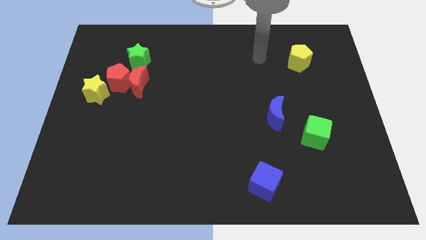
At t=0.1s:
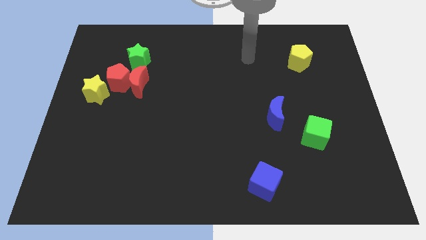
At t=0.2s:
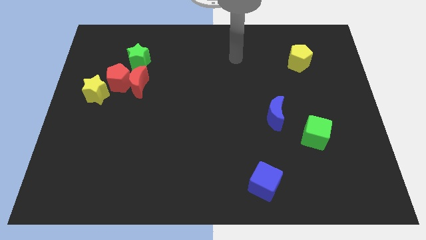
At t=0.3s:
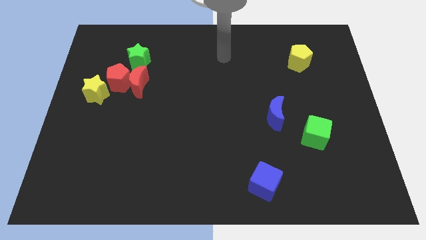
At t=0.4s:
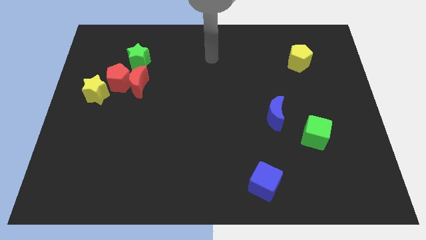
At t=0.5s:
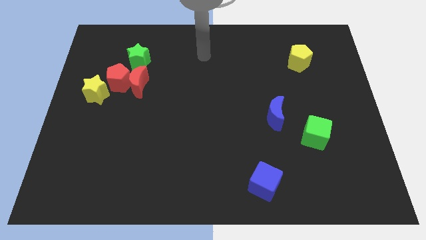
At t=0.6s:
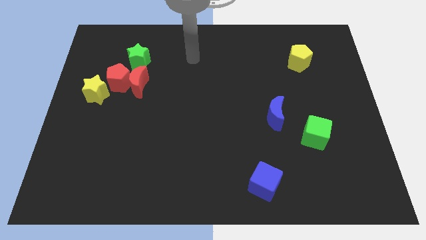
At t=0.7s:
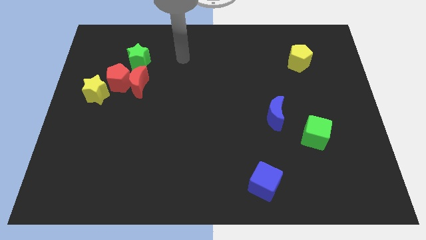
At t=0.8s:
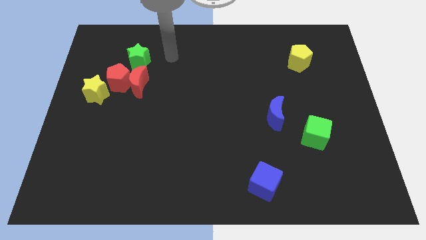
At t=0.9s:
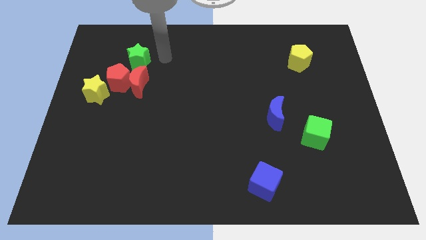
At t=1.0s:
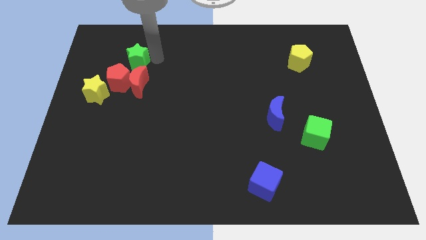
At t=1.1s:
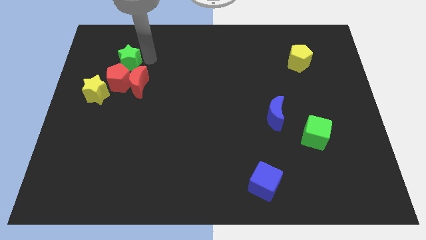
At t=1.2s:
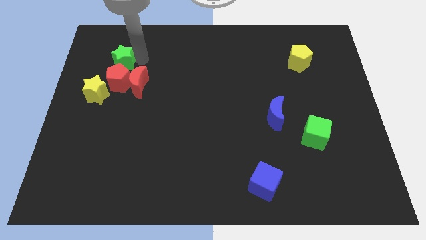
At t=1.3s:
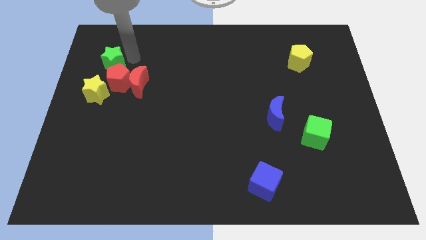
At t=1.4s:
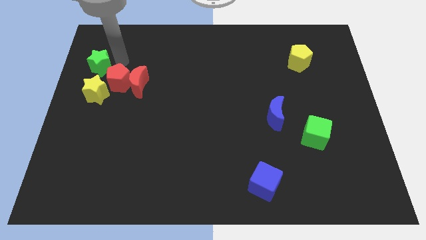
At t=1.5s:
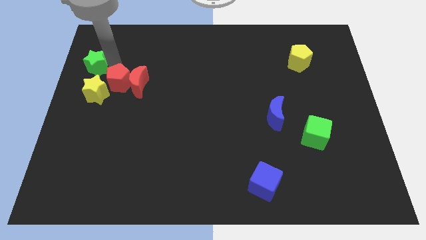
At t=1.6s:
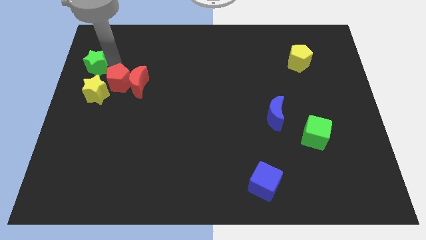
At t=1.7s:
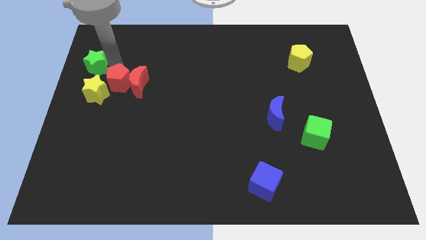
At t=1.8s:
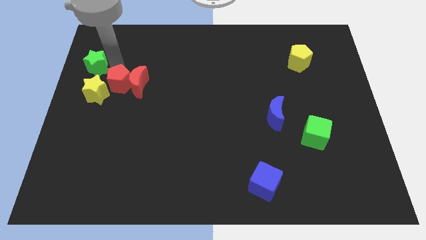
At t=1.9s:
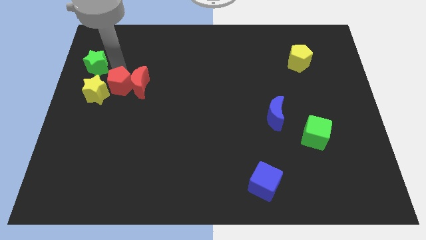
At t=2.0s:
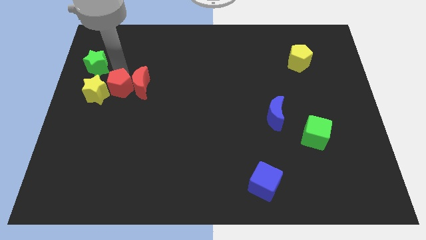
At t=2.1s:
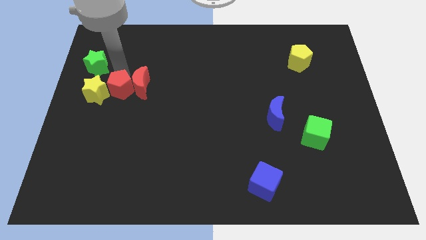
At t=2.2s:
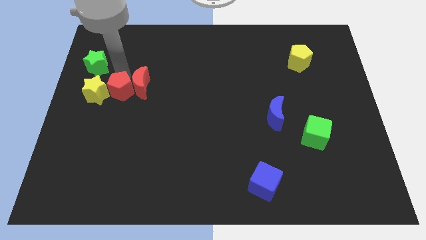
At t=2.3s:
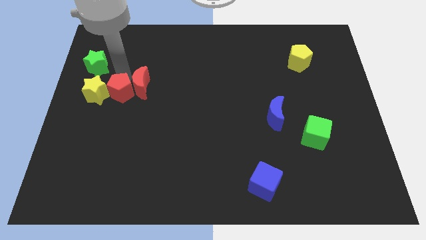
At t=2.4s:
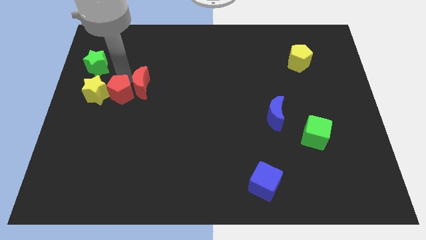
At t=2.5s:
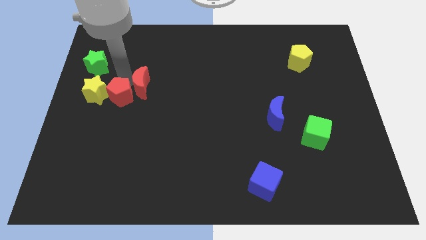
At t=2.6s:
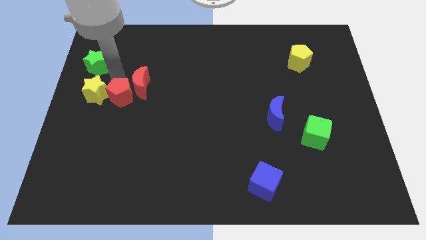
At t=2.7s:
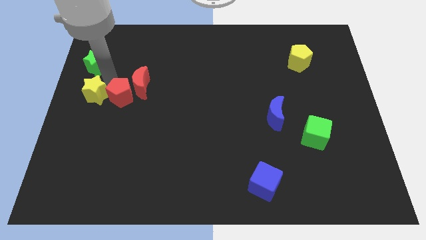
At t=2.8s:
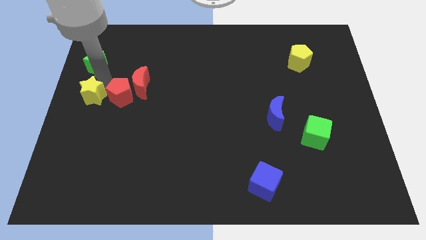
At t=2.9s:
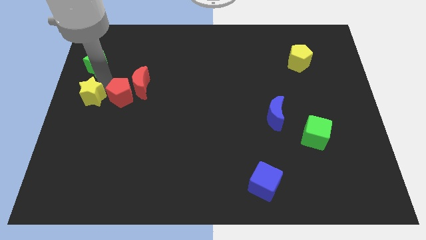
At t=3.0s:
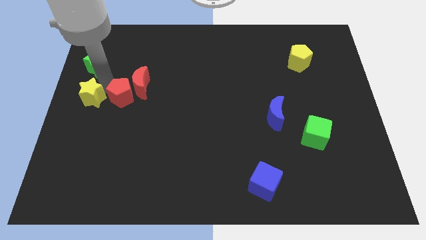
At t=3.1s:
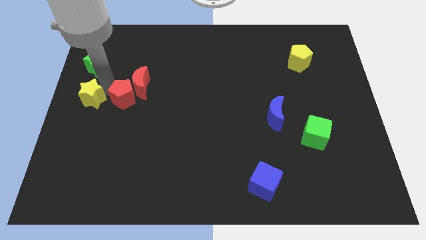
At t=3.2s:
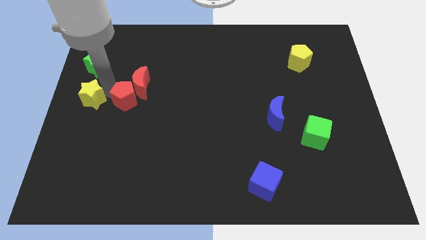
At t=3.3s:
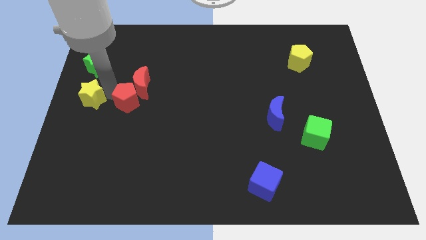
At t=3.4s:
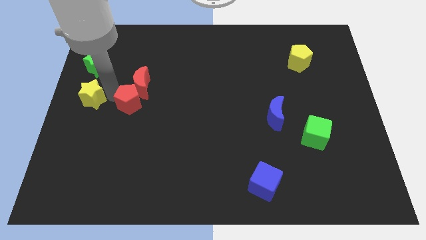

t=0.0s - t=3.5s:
slide the red pentagon a little down and then right

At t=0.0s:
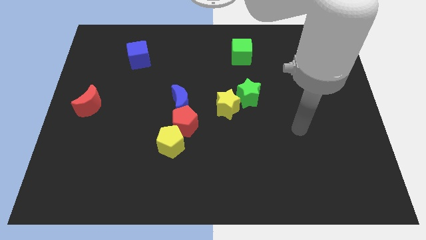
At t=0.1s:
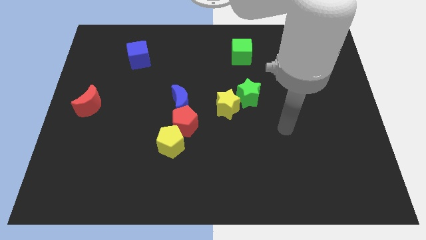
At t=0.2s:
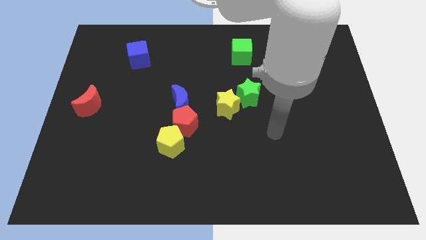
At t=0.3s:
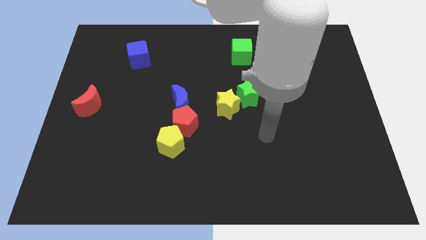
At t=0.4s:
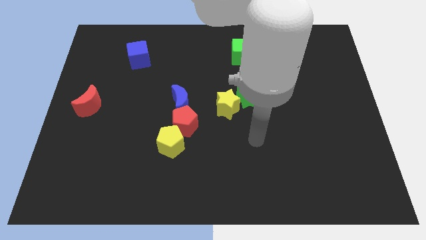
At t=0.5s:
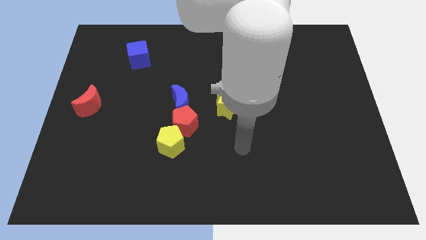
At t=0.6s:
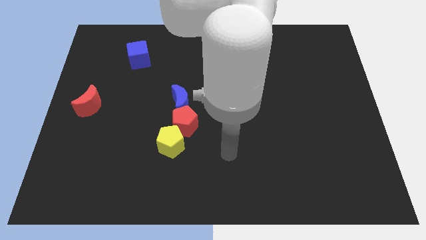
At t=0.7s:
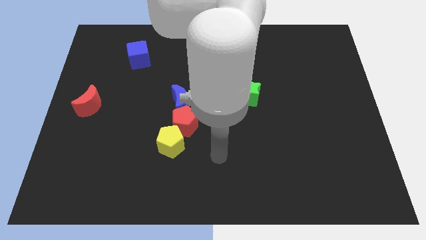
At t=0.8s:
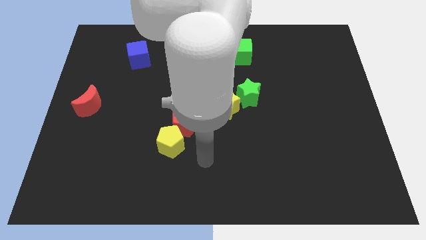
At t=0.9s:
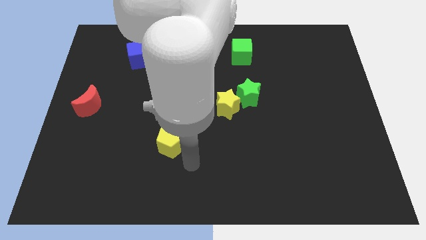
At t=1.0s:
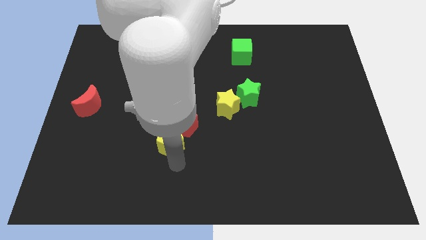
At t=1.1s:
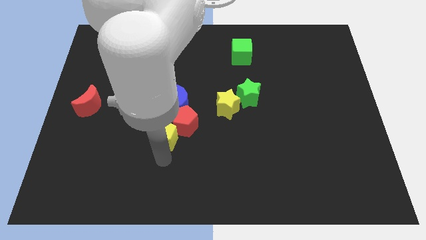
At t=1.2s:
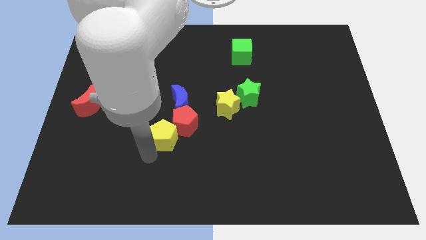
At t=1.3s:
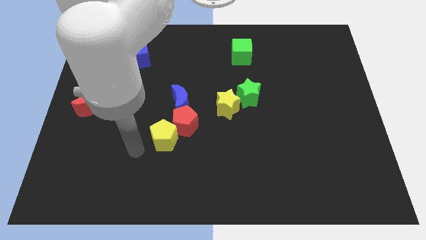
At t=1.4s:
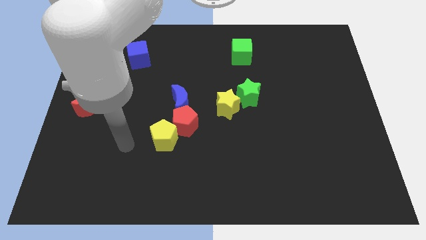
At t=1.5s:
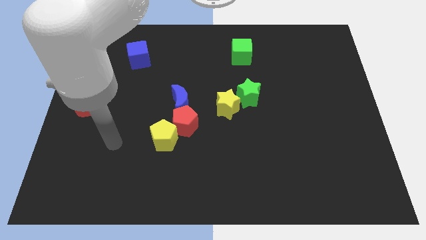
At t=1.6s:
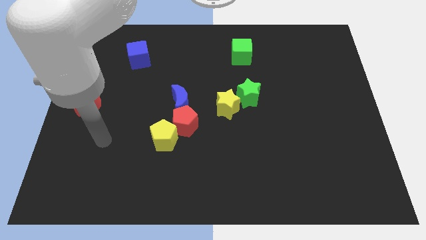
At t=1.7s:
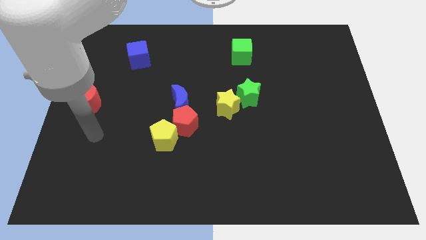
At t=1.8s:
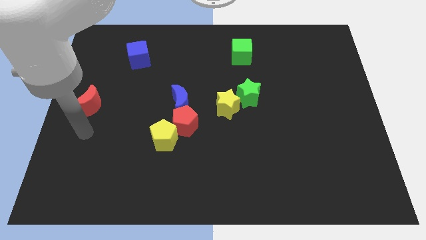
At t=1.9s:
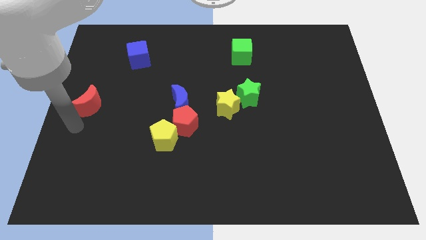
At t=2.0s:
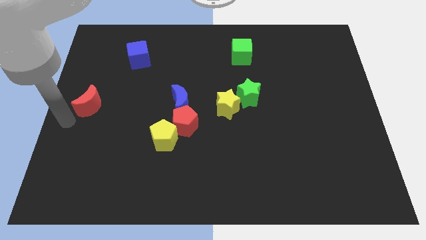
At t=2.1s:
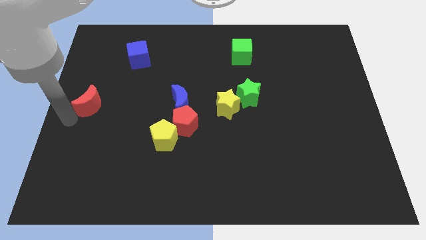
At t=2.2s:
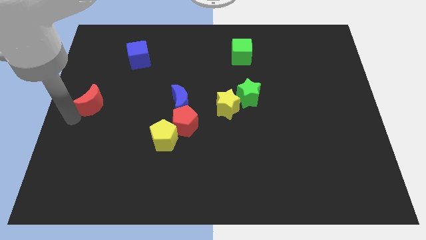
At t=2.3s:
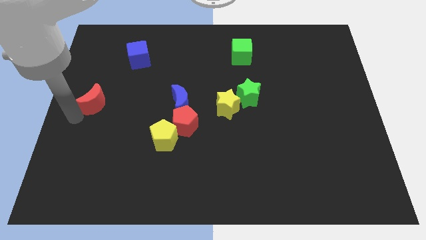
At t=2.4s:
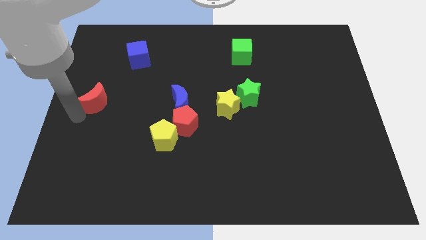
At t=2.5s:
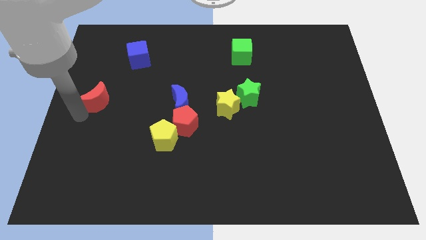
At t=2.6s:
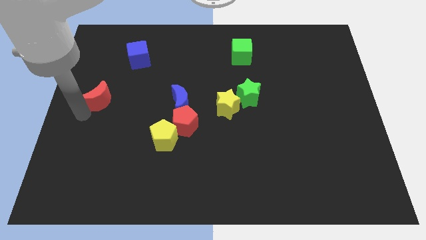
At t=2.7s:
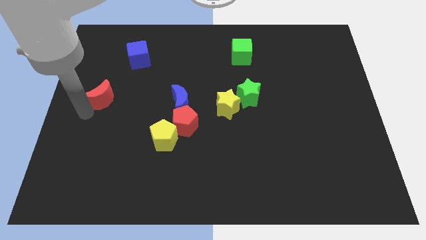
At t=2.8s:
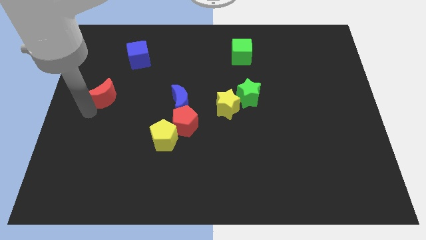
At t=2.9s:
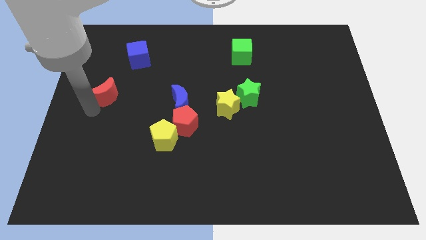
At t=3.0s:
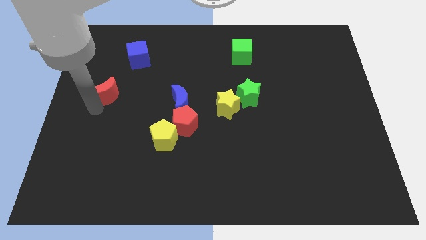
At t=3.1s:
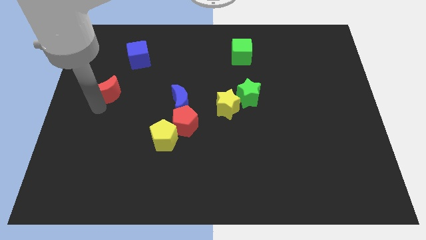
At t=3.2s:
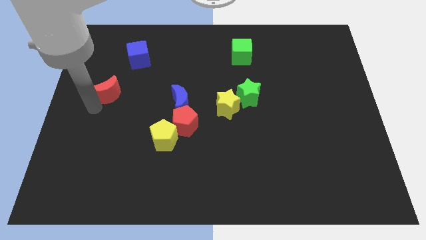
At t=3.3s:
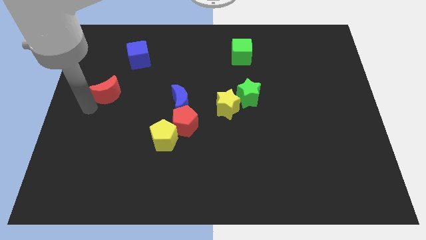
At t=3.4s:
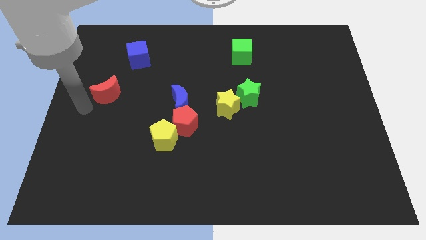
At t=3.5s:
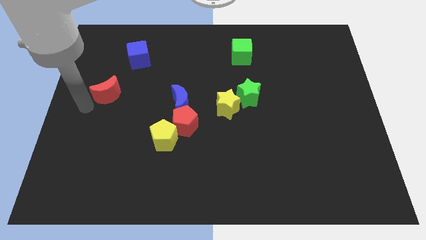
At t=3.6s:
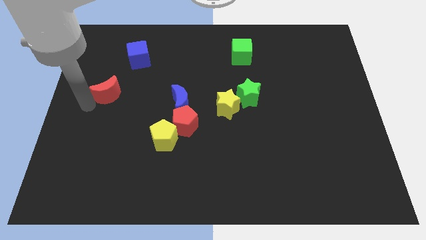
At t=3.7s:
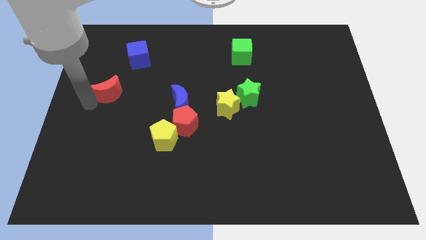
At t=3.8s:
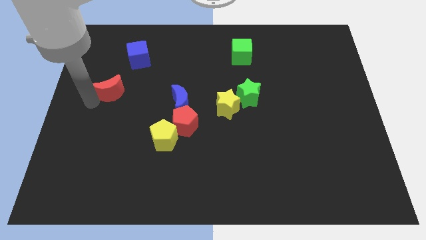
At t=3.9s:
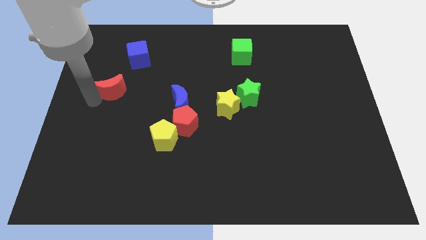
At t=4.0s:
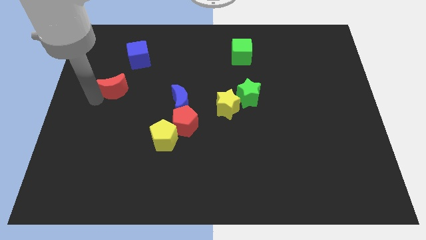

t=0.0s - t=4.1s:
slide the red moon a little upwards and to the right diagonally
